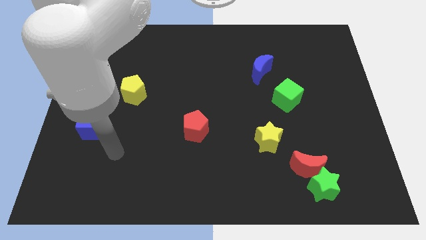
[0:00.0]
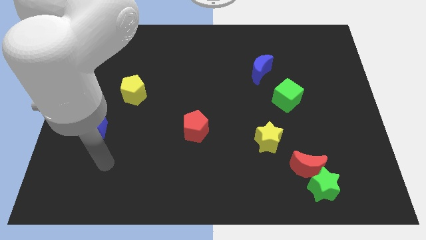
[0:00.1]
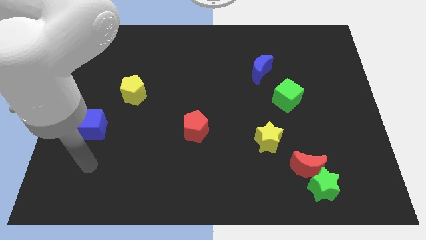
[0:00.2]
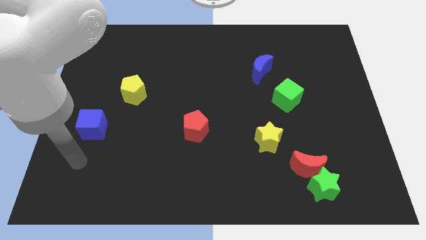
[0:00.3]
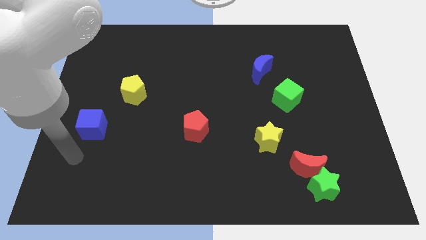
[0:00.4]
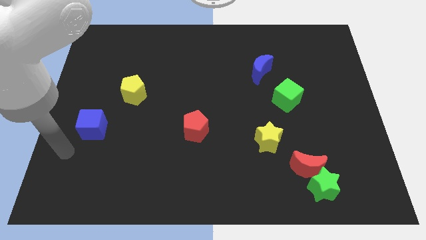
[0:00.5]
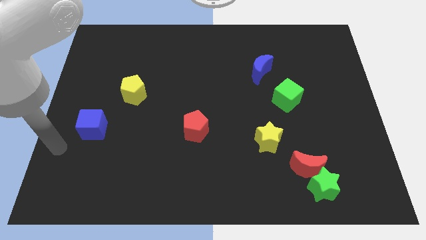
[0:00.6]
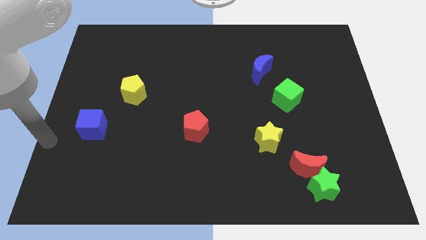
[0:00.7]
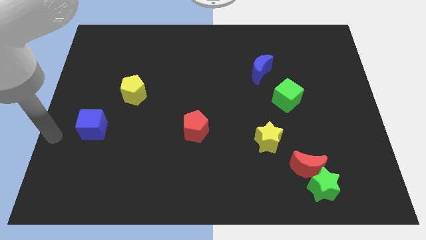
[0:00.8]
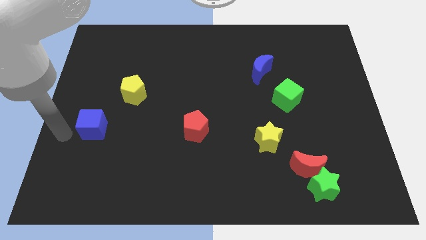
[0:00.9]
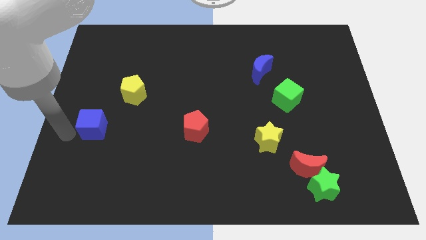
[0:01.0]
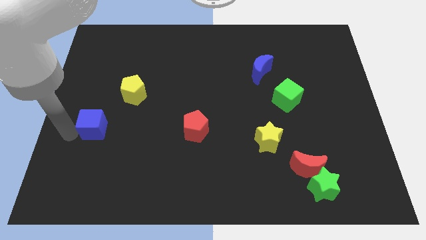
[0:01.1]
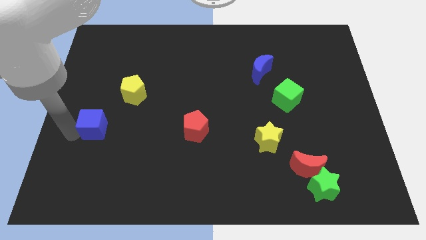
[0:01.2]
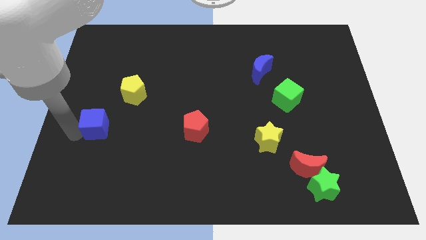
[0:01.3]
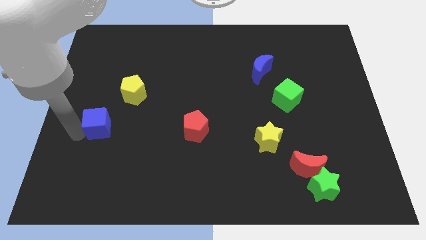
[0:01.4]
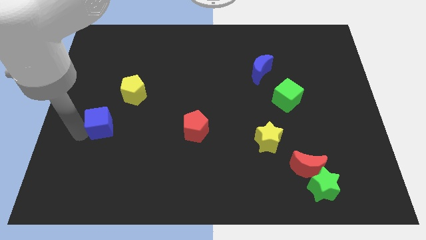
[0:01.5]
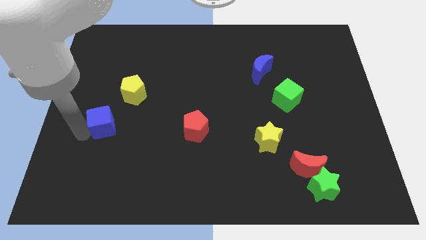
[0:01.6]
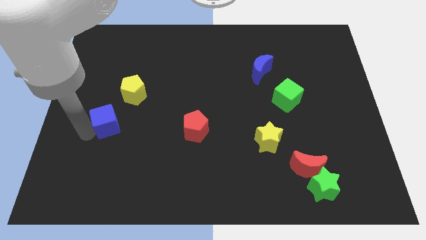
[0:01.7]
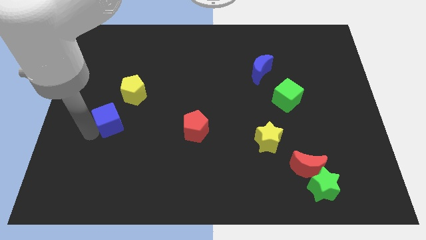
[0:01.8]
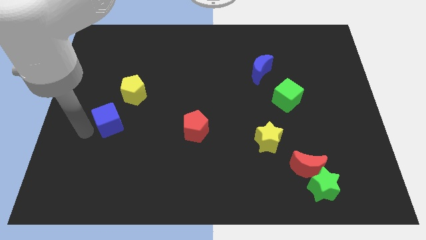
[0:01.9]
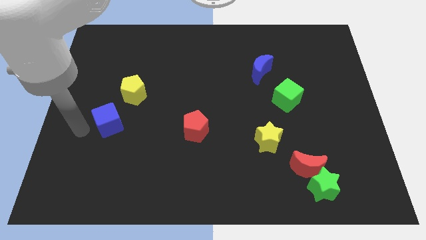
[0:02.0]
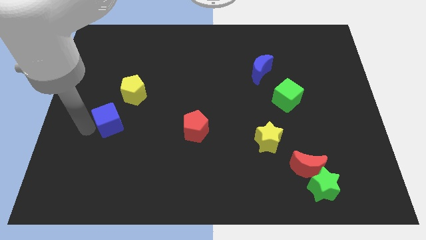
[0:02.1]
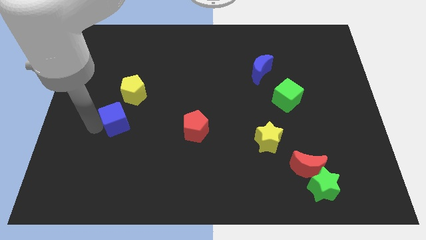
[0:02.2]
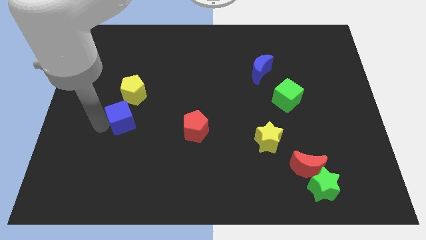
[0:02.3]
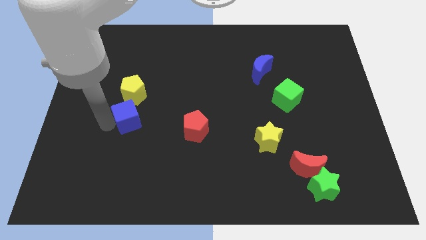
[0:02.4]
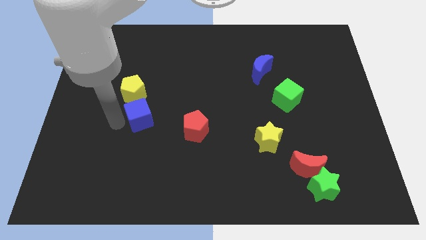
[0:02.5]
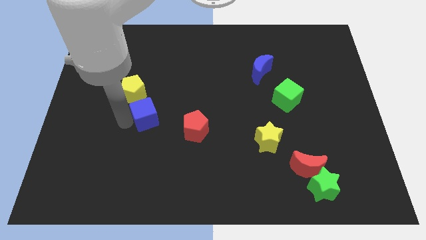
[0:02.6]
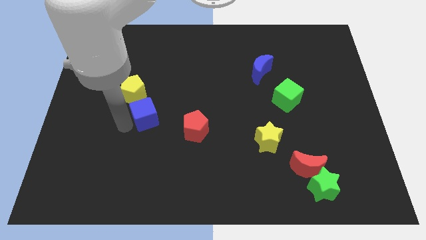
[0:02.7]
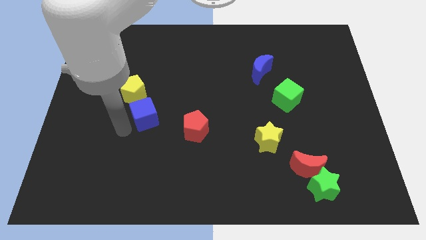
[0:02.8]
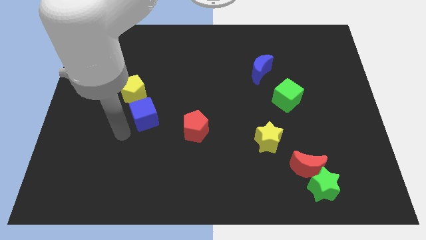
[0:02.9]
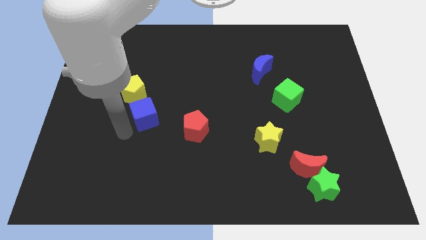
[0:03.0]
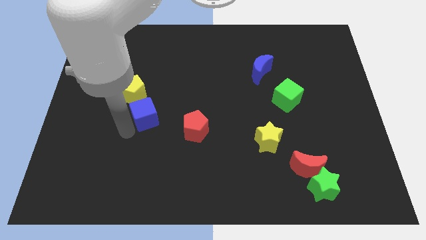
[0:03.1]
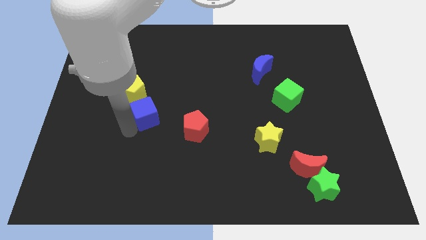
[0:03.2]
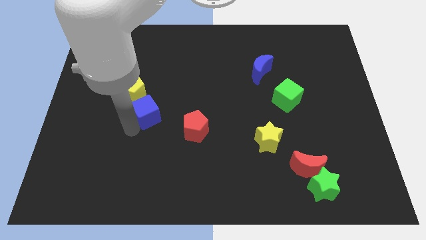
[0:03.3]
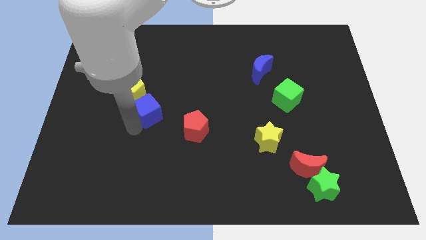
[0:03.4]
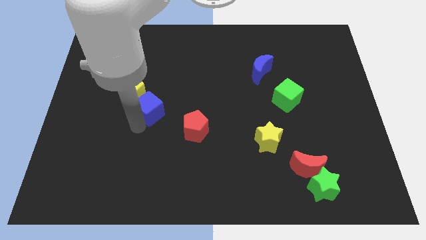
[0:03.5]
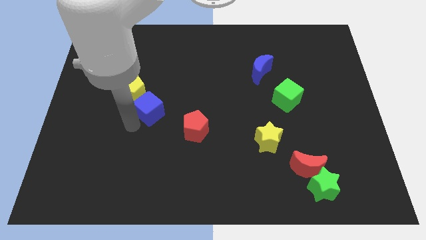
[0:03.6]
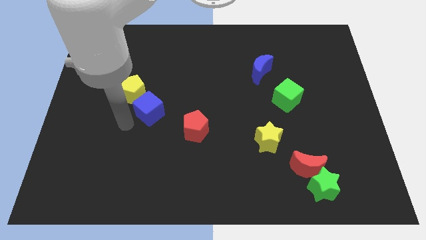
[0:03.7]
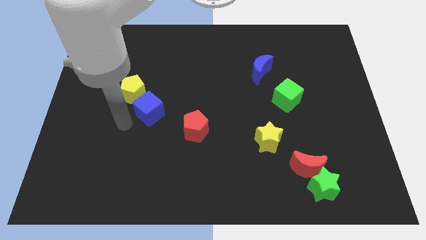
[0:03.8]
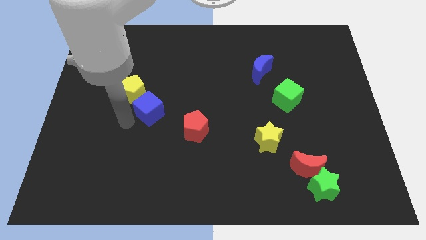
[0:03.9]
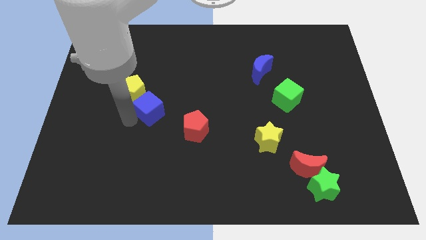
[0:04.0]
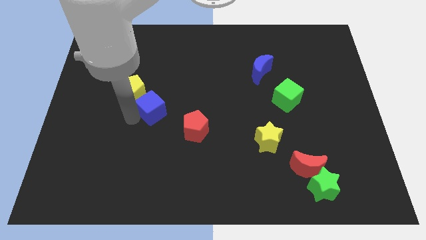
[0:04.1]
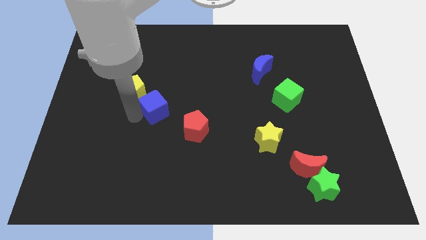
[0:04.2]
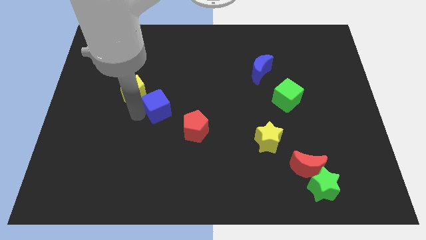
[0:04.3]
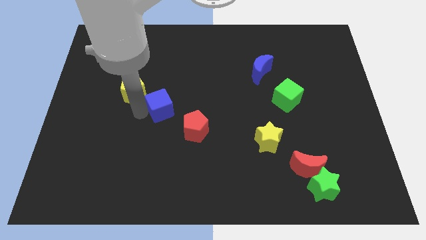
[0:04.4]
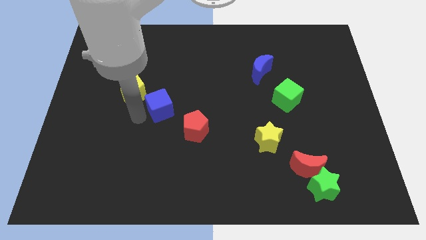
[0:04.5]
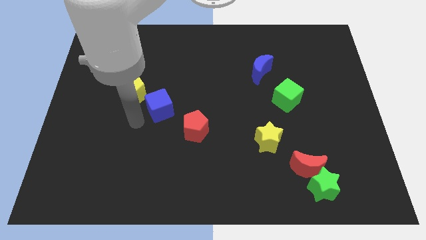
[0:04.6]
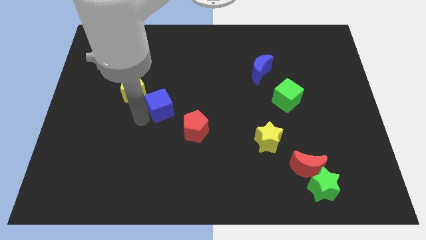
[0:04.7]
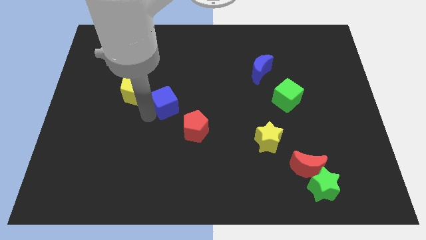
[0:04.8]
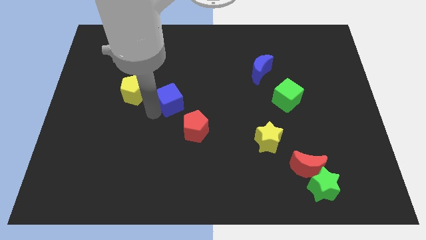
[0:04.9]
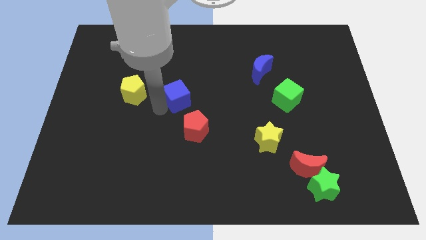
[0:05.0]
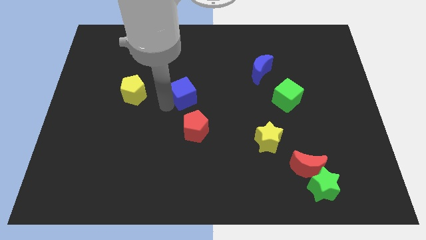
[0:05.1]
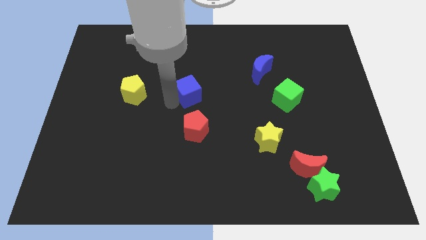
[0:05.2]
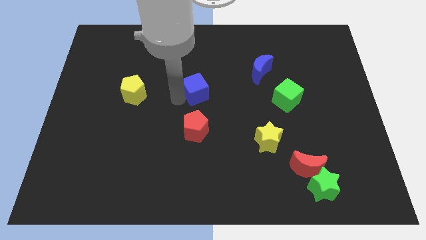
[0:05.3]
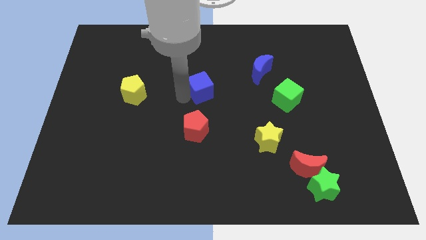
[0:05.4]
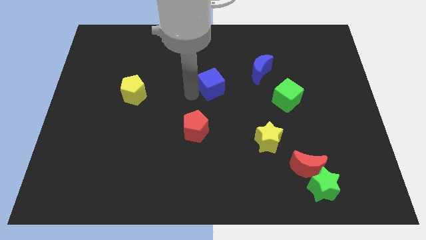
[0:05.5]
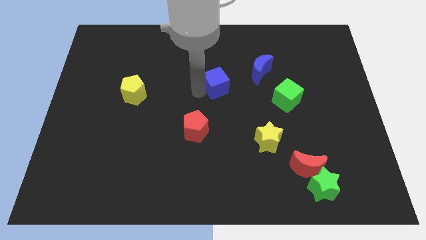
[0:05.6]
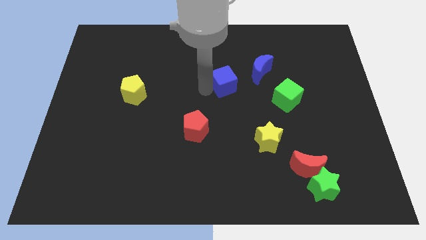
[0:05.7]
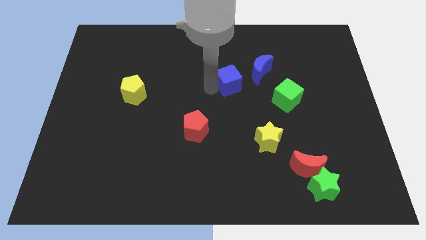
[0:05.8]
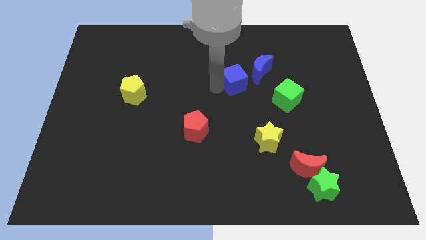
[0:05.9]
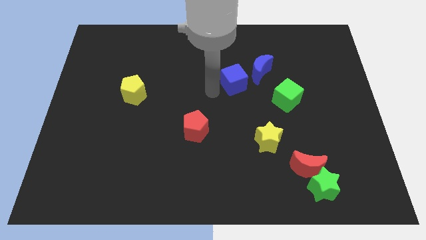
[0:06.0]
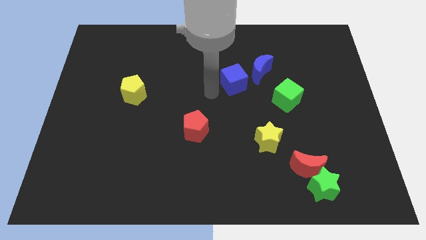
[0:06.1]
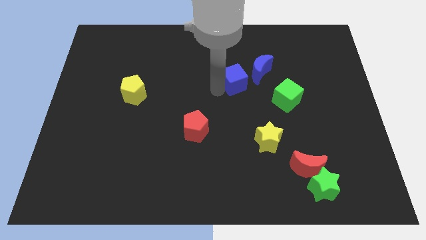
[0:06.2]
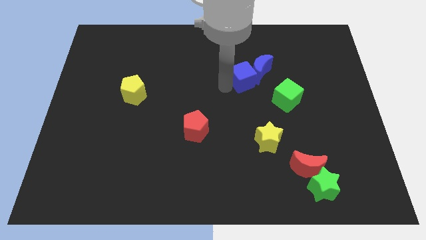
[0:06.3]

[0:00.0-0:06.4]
push the blue cube to the blue moon

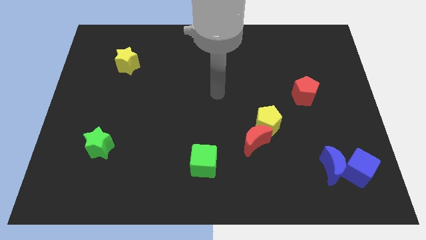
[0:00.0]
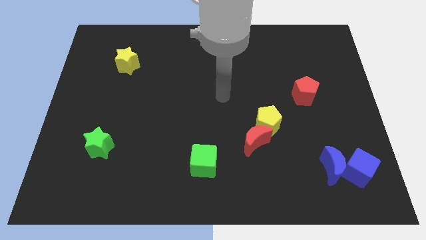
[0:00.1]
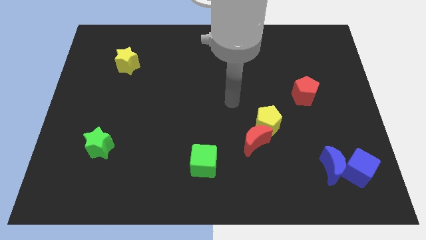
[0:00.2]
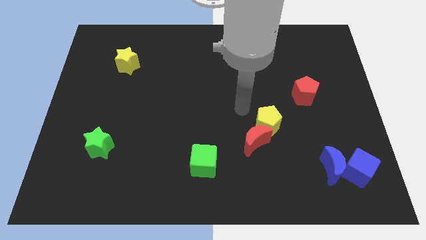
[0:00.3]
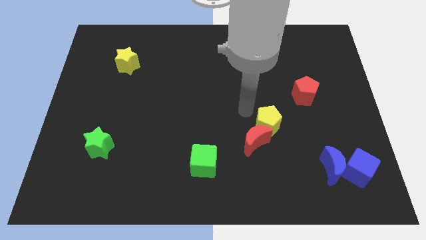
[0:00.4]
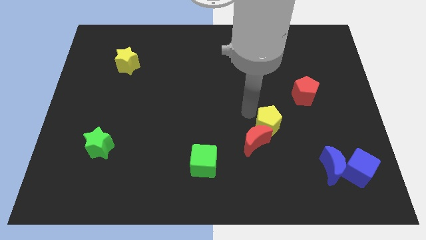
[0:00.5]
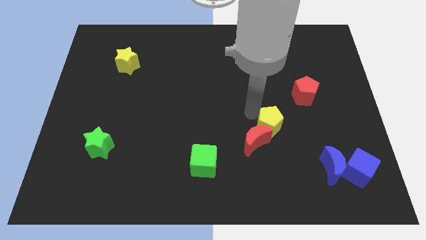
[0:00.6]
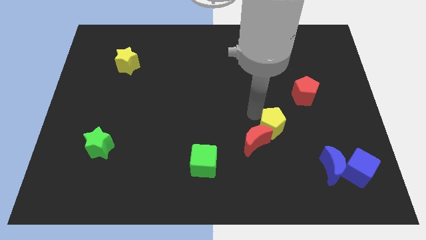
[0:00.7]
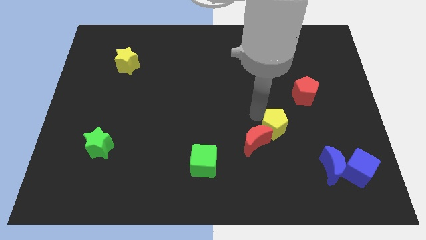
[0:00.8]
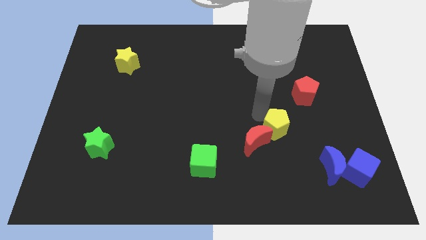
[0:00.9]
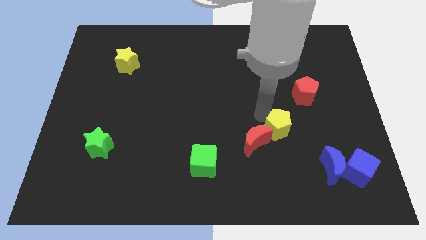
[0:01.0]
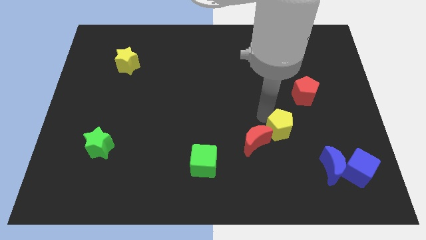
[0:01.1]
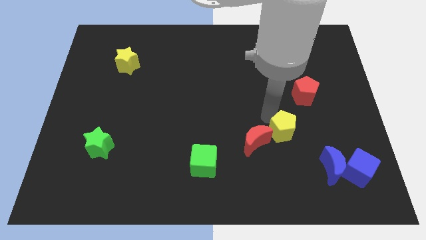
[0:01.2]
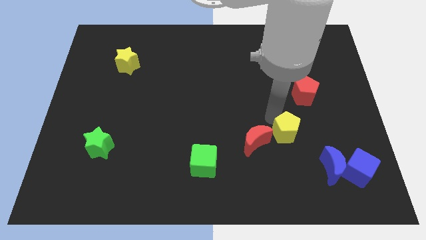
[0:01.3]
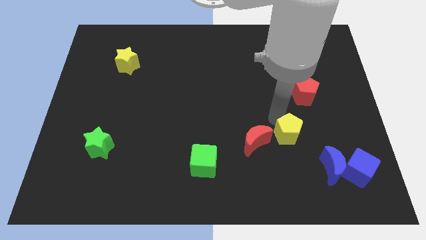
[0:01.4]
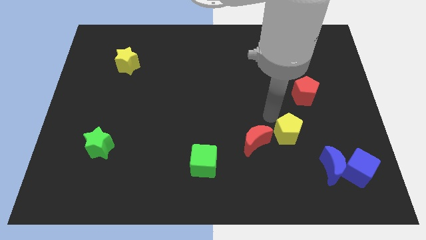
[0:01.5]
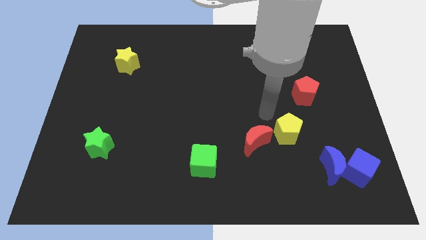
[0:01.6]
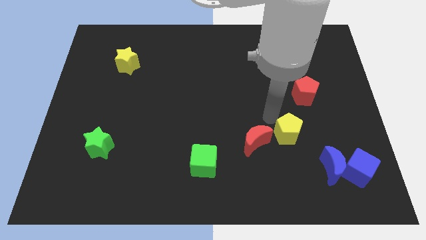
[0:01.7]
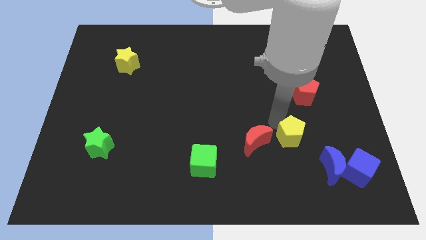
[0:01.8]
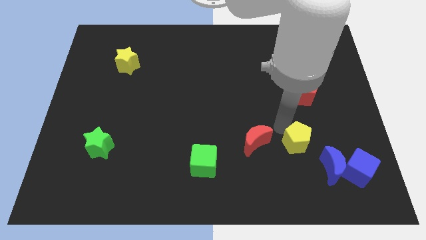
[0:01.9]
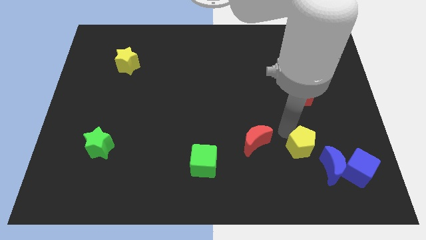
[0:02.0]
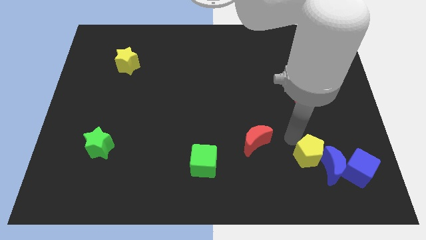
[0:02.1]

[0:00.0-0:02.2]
slide the yellow pentagon close to the blue moon
